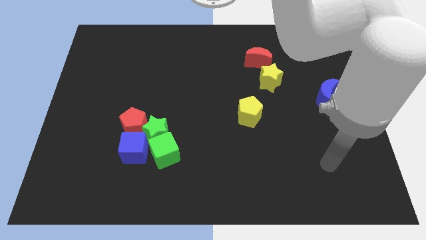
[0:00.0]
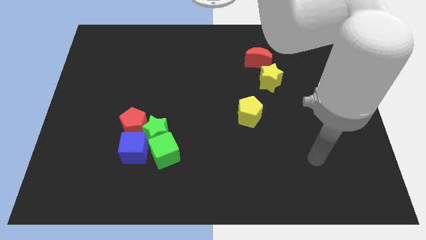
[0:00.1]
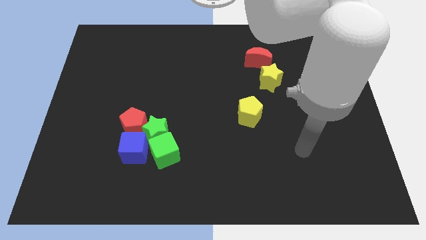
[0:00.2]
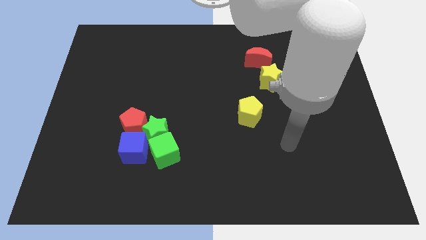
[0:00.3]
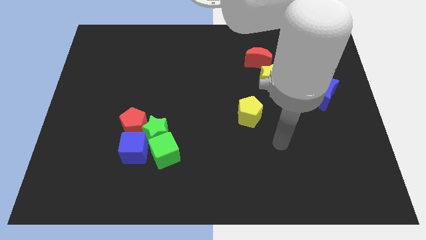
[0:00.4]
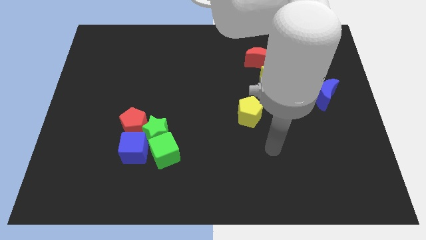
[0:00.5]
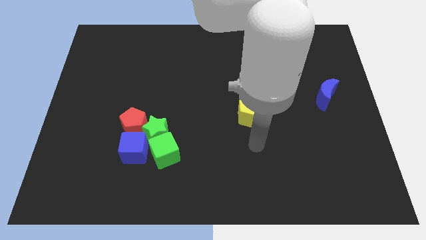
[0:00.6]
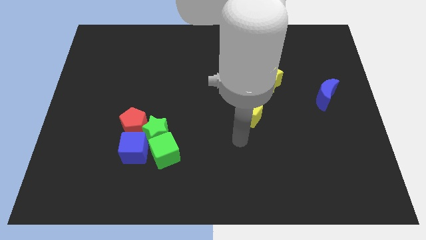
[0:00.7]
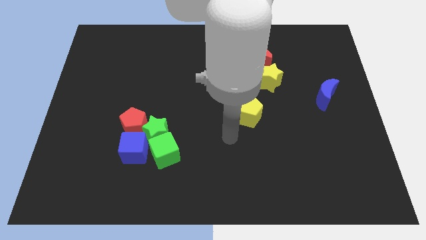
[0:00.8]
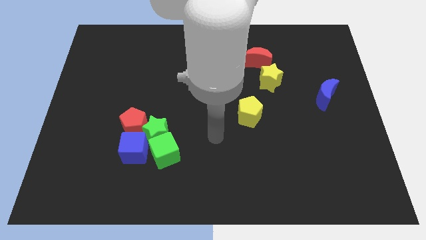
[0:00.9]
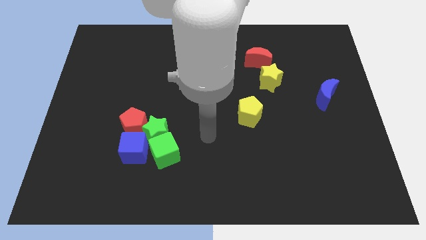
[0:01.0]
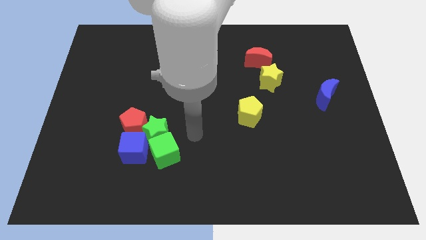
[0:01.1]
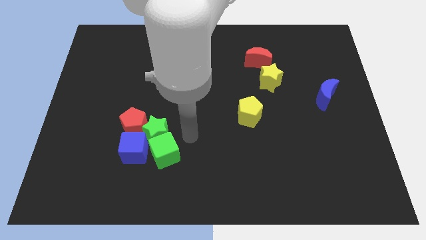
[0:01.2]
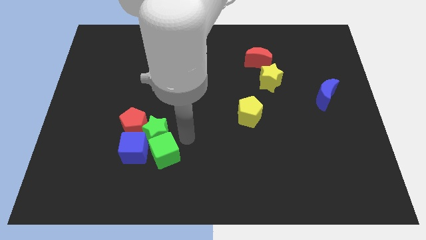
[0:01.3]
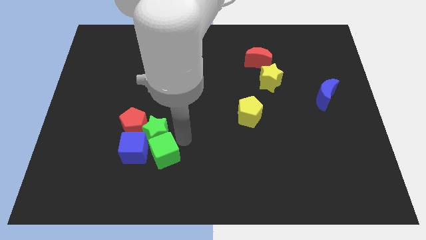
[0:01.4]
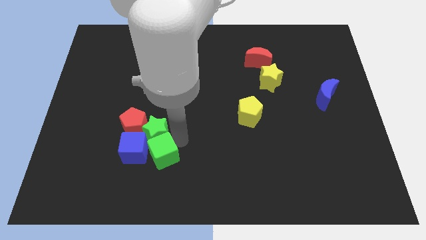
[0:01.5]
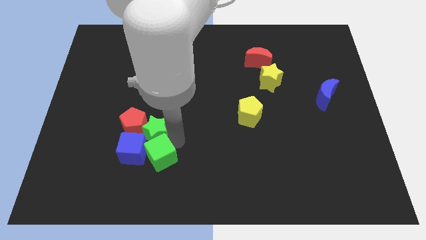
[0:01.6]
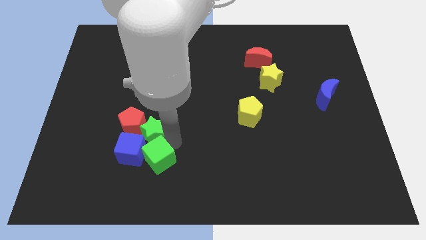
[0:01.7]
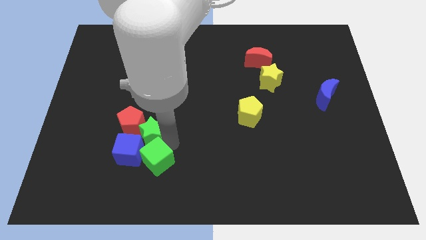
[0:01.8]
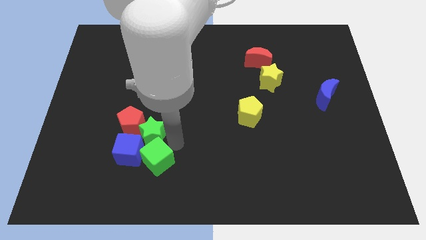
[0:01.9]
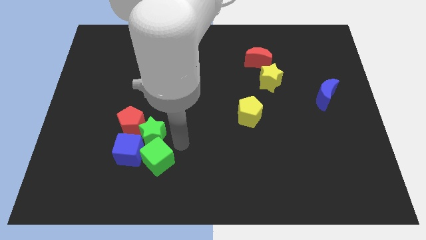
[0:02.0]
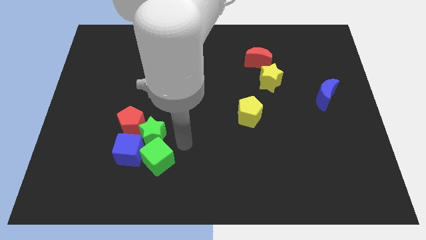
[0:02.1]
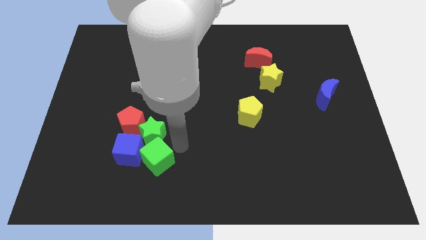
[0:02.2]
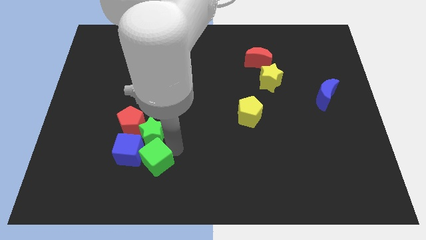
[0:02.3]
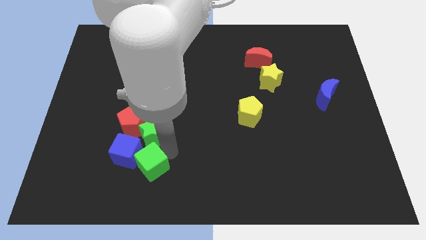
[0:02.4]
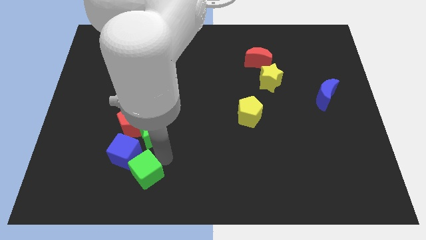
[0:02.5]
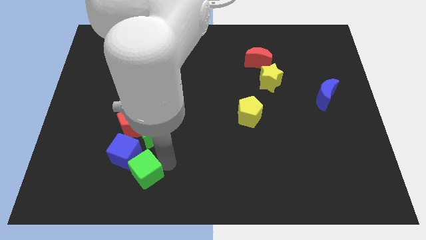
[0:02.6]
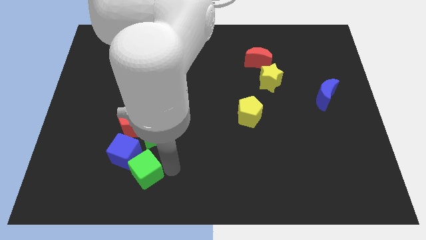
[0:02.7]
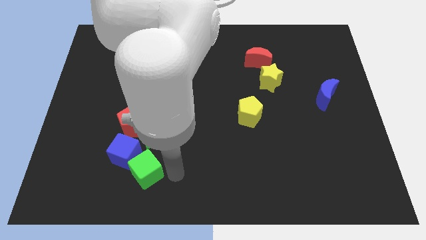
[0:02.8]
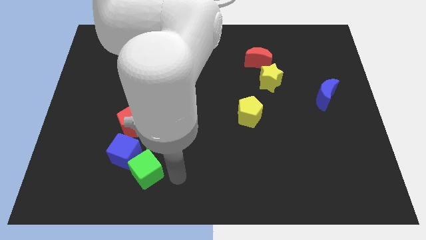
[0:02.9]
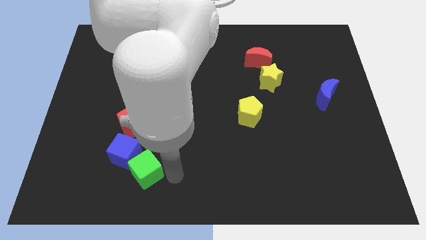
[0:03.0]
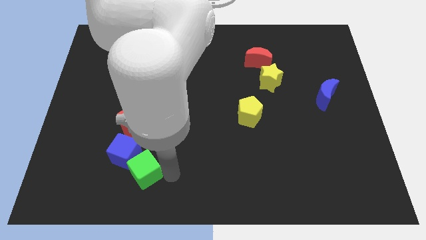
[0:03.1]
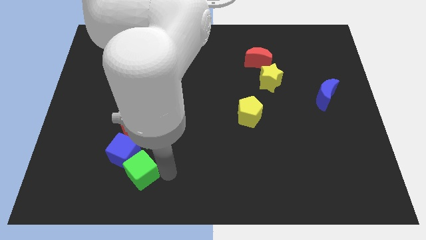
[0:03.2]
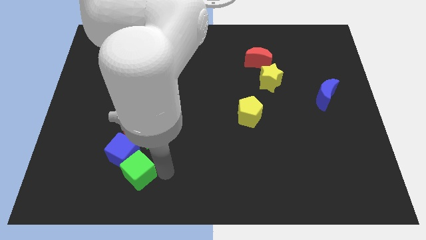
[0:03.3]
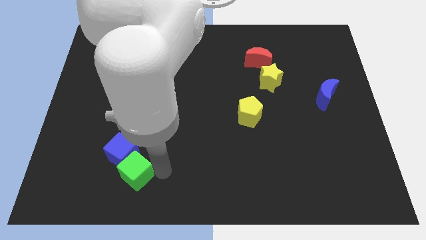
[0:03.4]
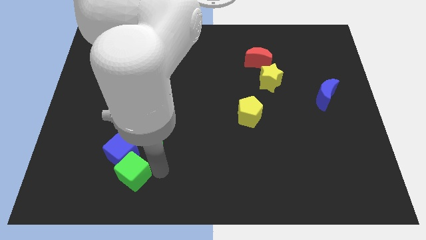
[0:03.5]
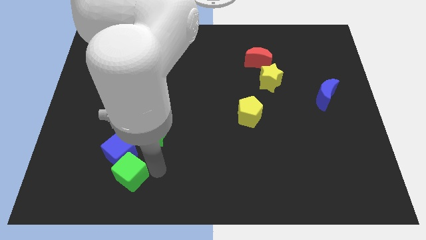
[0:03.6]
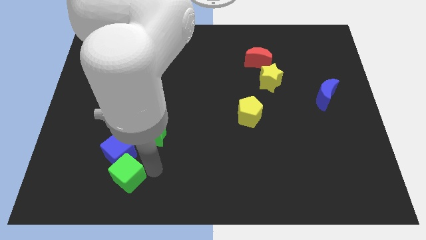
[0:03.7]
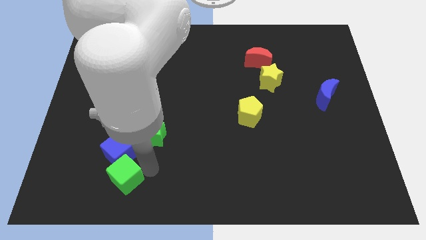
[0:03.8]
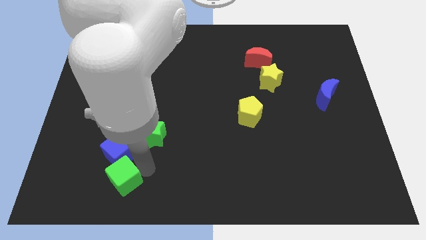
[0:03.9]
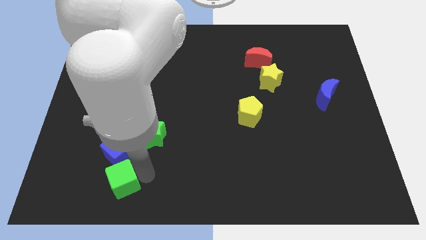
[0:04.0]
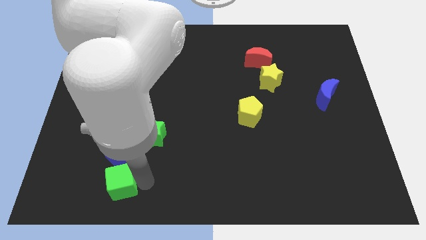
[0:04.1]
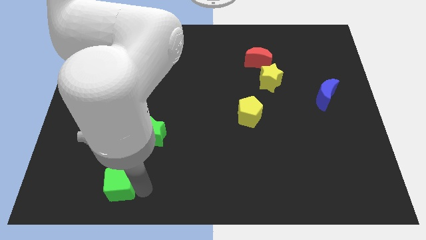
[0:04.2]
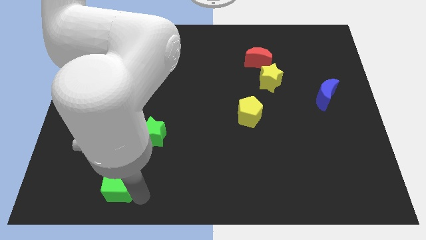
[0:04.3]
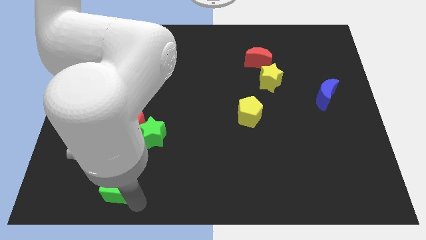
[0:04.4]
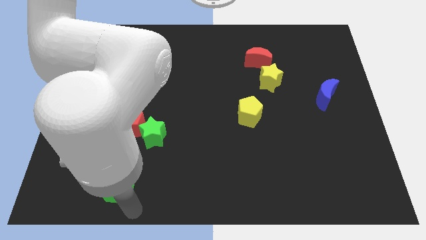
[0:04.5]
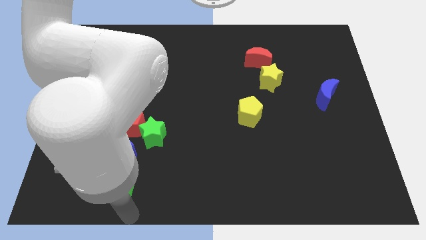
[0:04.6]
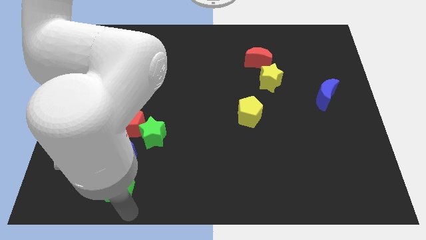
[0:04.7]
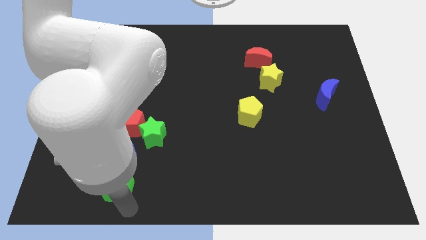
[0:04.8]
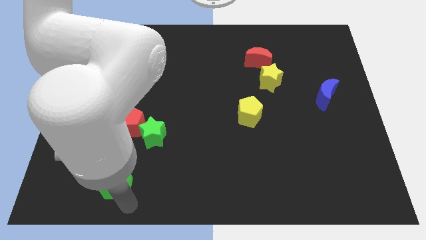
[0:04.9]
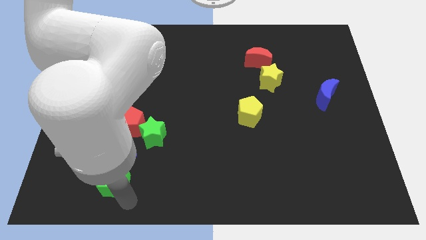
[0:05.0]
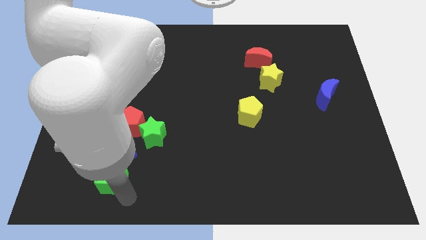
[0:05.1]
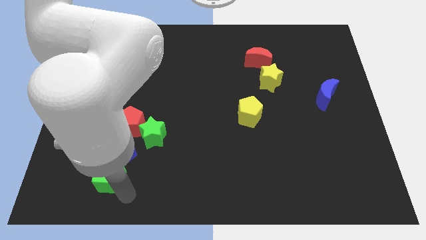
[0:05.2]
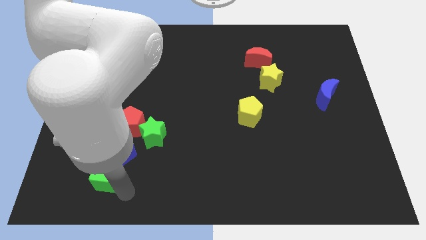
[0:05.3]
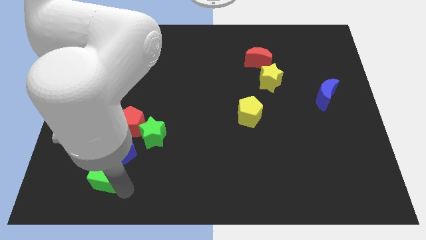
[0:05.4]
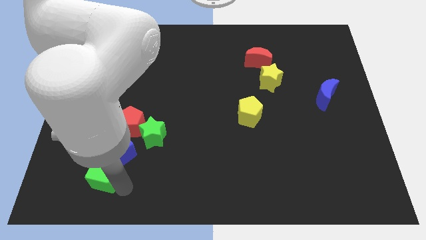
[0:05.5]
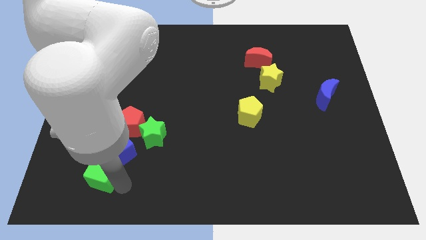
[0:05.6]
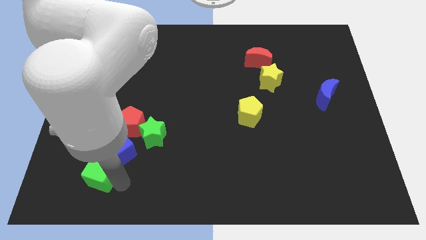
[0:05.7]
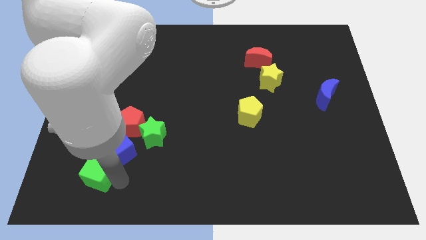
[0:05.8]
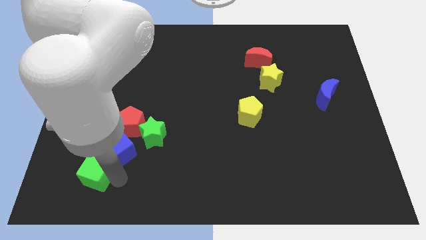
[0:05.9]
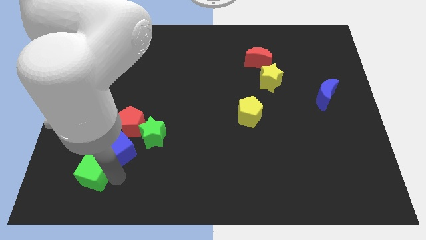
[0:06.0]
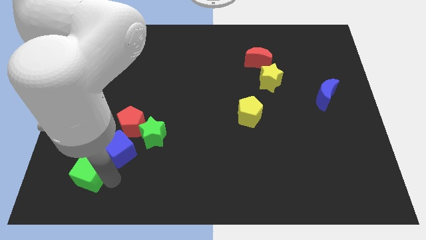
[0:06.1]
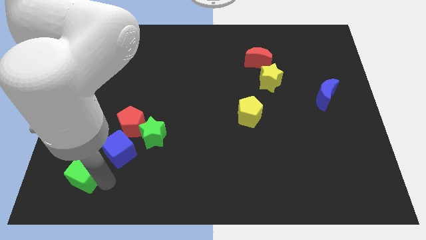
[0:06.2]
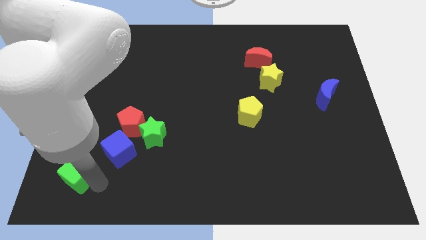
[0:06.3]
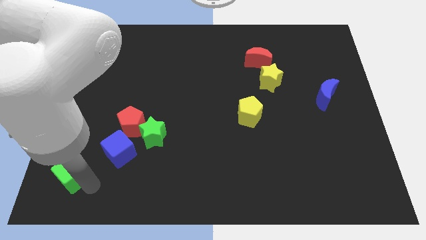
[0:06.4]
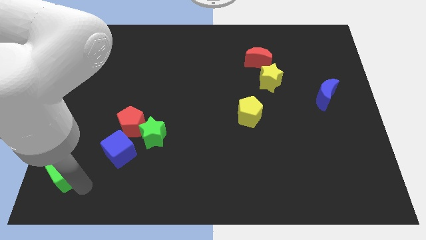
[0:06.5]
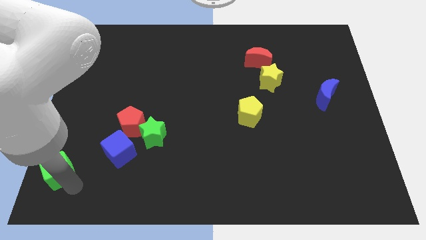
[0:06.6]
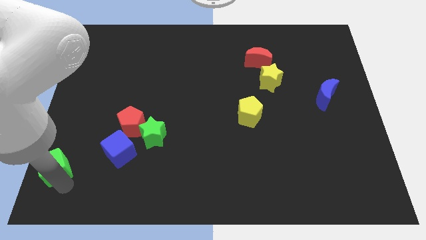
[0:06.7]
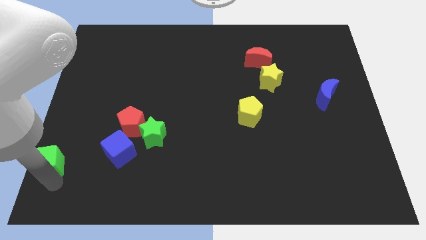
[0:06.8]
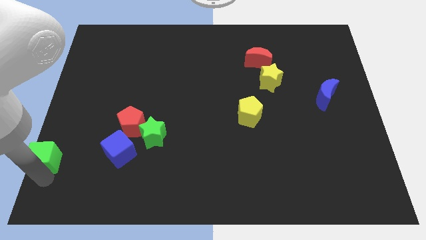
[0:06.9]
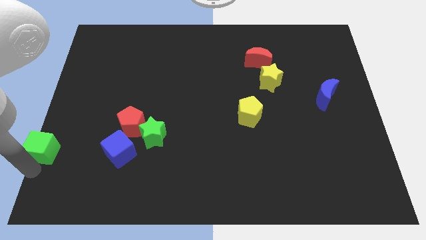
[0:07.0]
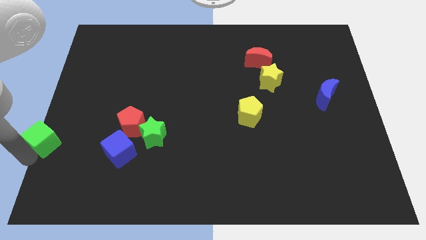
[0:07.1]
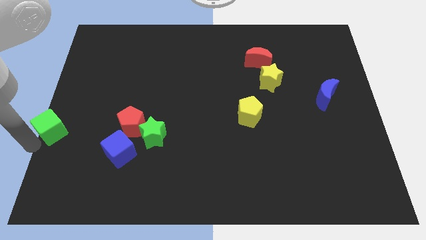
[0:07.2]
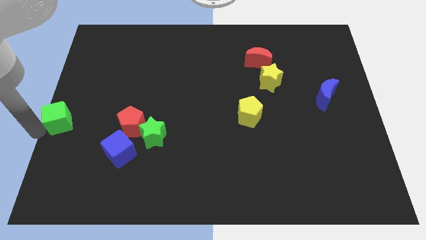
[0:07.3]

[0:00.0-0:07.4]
slide the green cube a little up and left

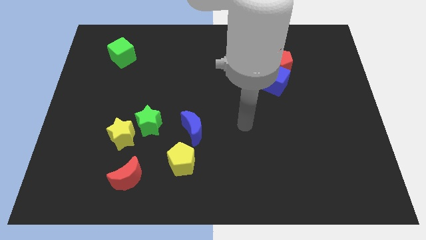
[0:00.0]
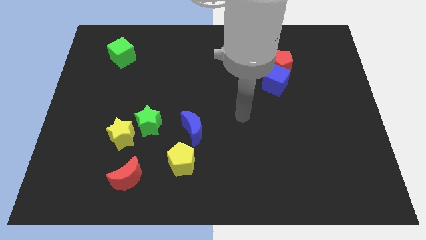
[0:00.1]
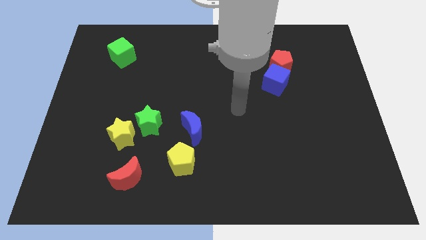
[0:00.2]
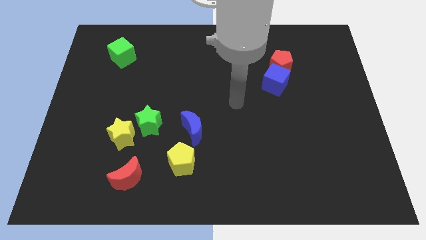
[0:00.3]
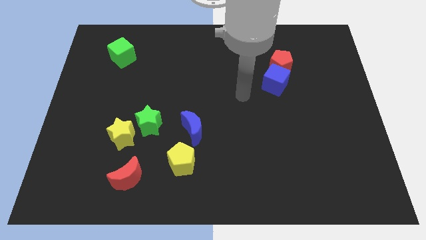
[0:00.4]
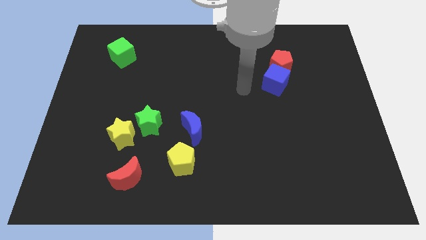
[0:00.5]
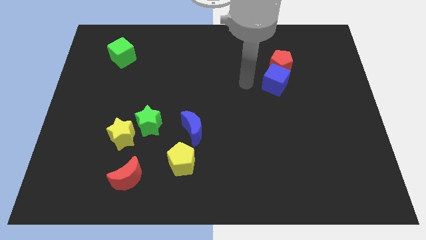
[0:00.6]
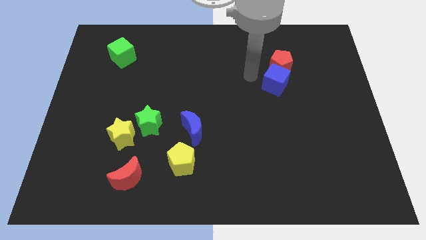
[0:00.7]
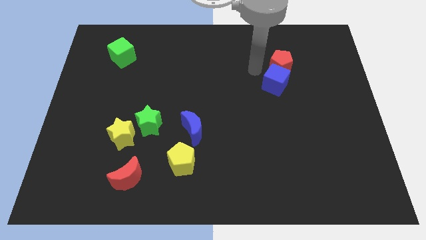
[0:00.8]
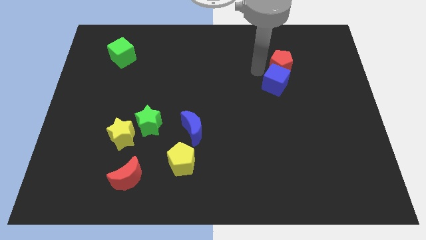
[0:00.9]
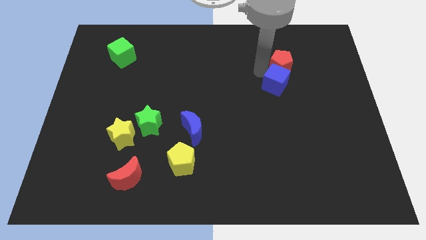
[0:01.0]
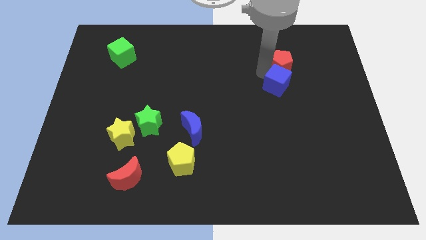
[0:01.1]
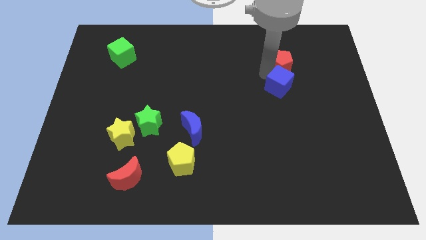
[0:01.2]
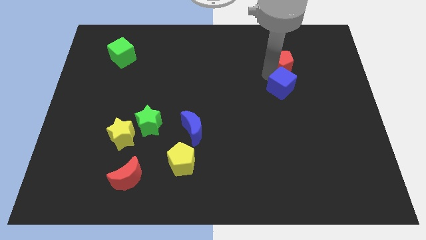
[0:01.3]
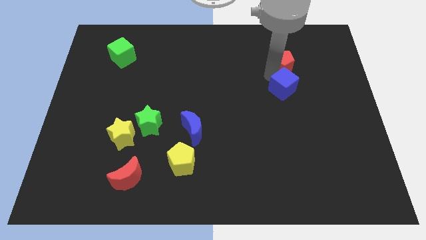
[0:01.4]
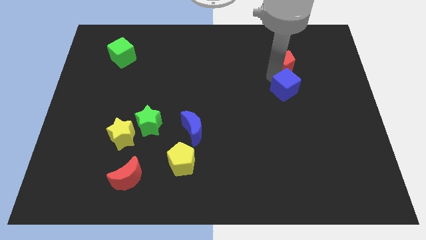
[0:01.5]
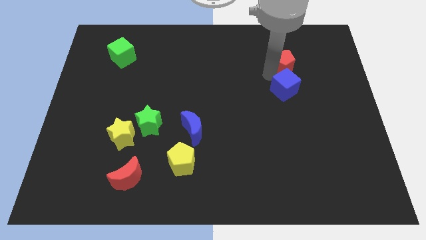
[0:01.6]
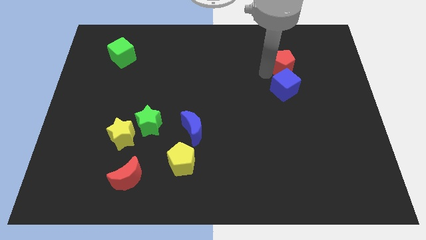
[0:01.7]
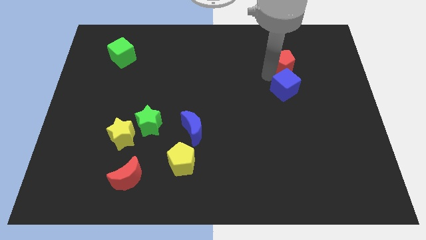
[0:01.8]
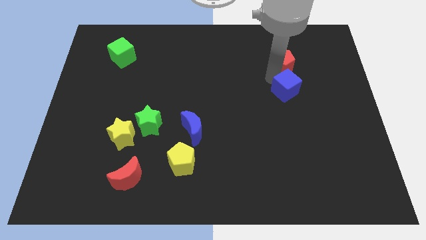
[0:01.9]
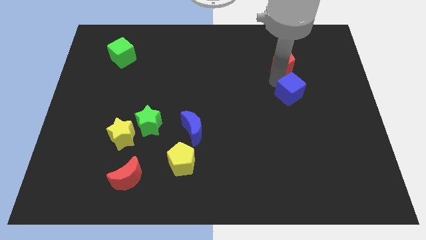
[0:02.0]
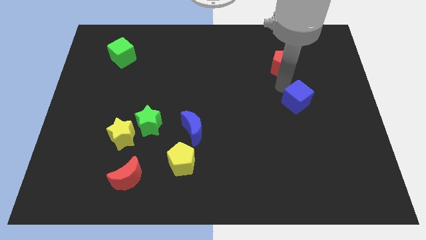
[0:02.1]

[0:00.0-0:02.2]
move the blue cube a bit down and right diagonally
